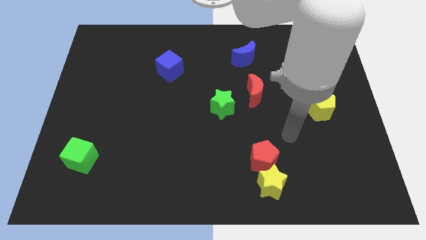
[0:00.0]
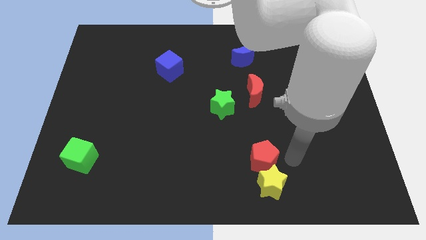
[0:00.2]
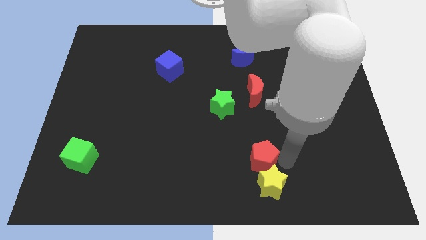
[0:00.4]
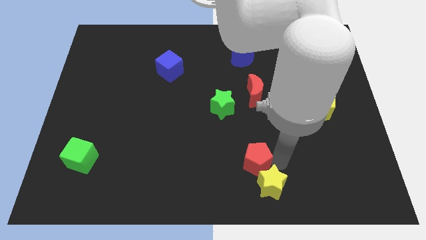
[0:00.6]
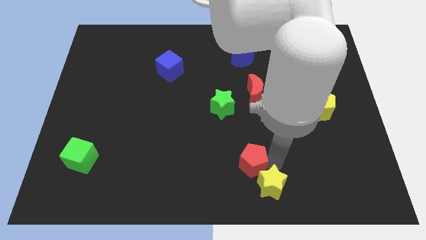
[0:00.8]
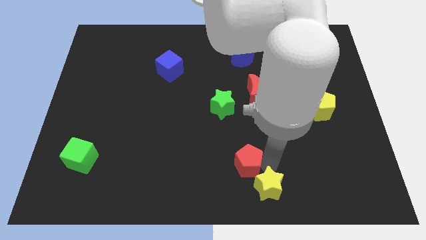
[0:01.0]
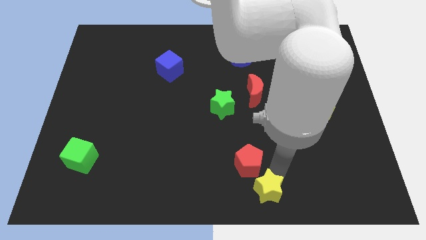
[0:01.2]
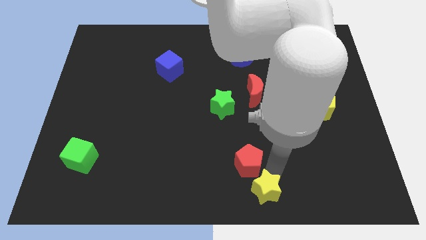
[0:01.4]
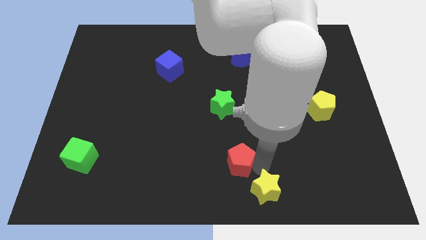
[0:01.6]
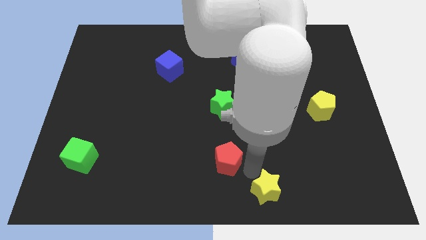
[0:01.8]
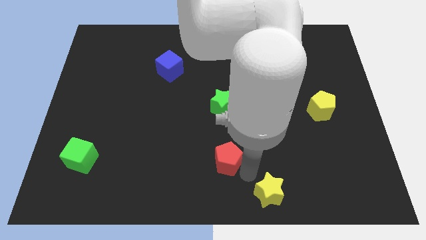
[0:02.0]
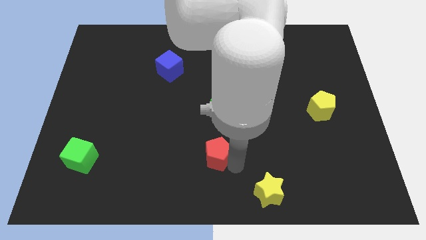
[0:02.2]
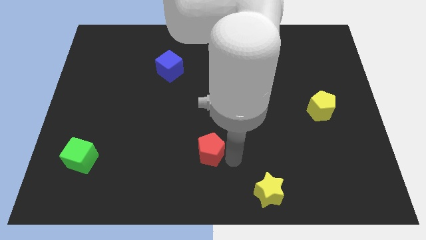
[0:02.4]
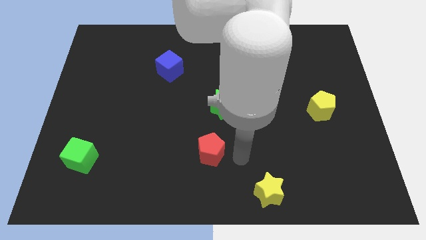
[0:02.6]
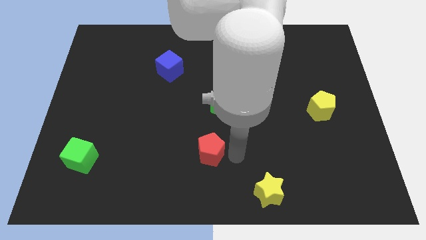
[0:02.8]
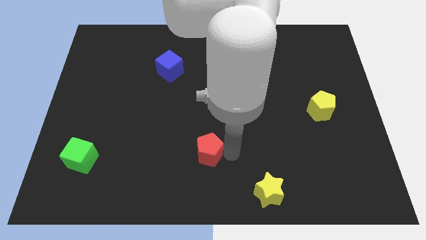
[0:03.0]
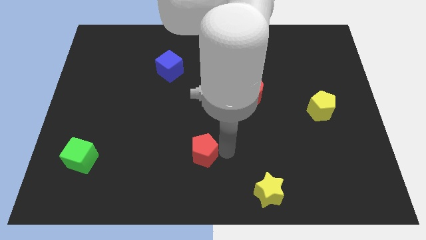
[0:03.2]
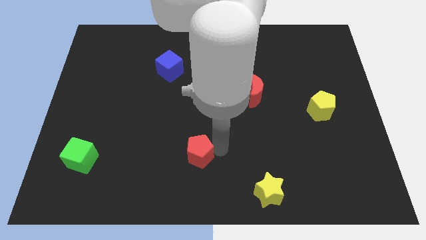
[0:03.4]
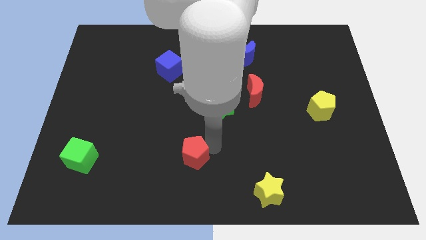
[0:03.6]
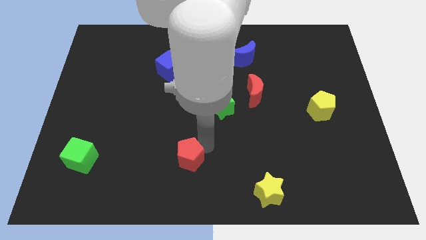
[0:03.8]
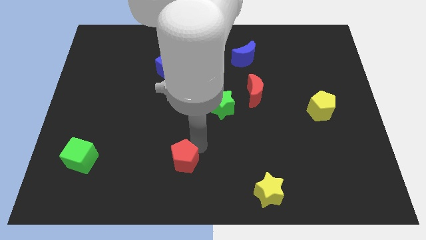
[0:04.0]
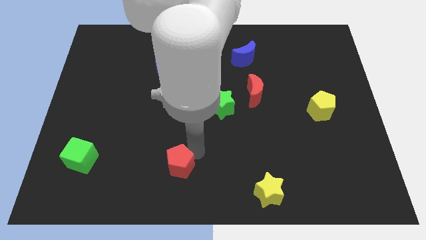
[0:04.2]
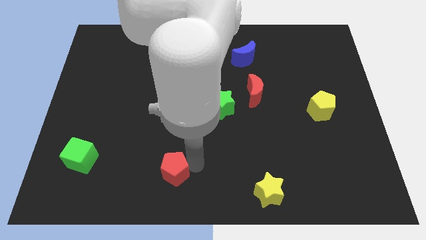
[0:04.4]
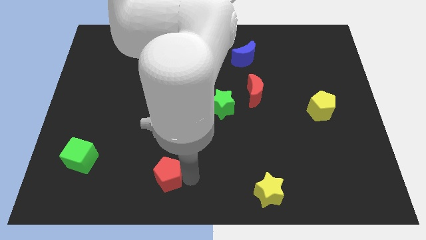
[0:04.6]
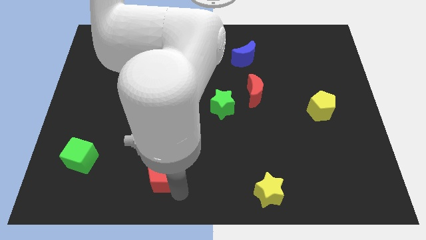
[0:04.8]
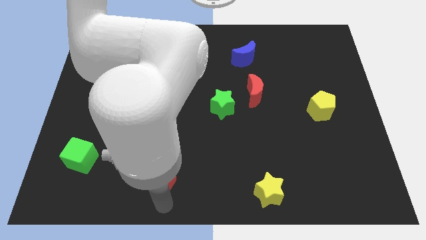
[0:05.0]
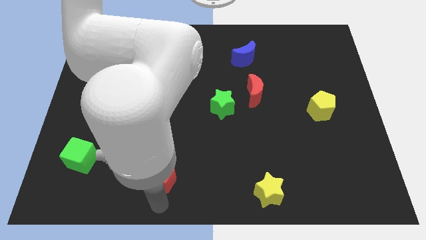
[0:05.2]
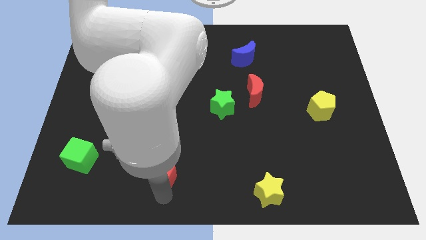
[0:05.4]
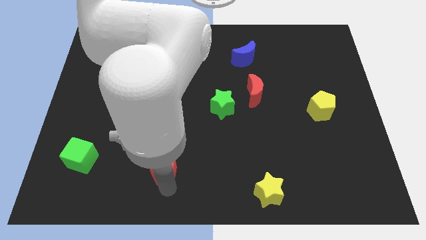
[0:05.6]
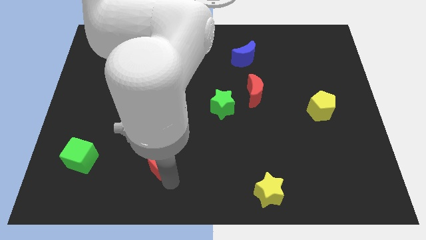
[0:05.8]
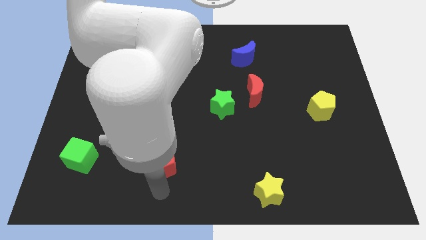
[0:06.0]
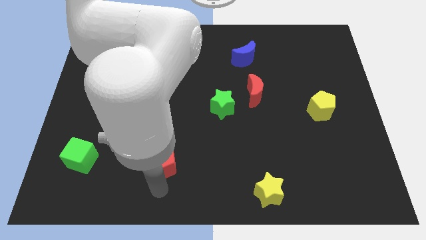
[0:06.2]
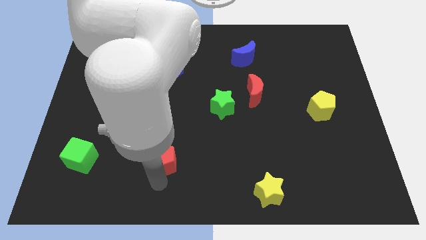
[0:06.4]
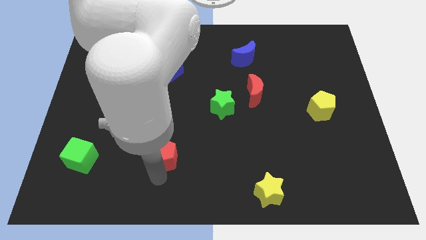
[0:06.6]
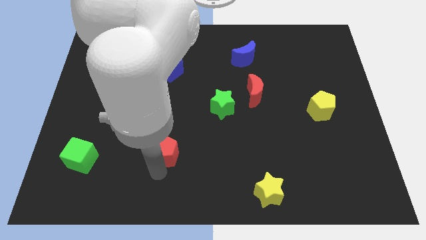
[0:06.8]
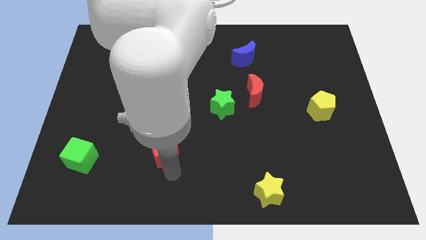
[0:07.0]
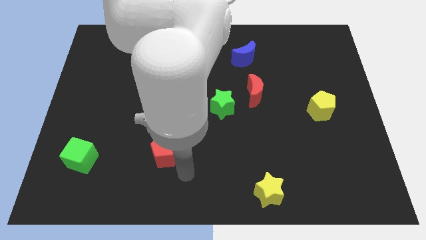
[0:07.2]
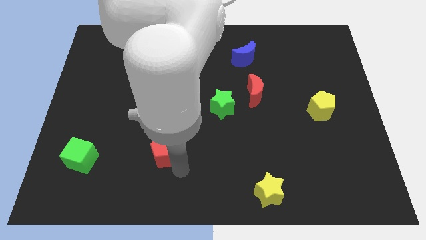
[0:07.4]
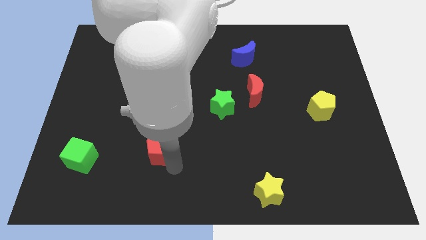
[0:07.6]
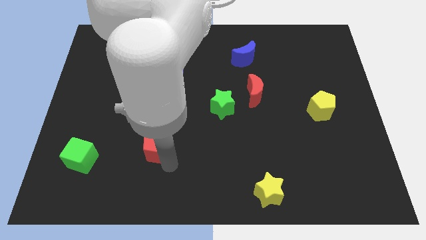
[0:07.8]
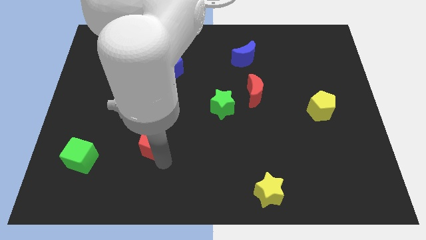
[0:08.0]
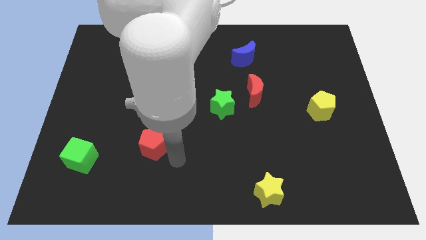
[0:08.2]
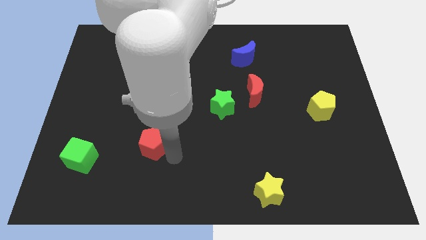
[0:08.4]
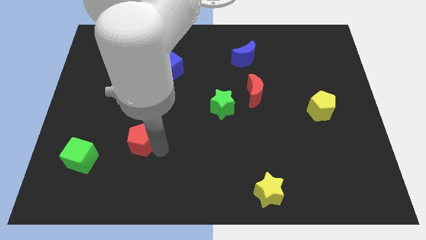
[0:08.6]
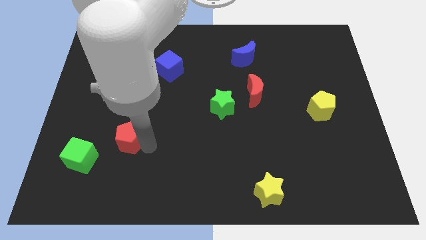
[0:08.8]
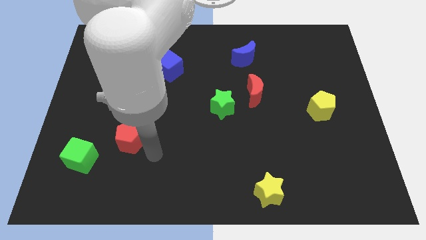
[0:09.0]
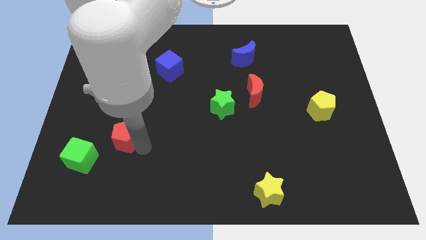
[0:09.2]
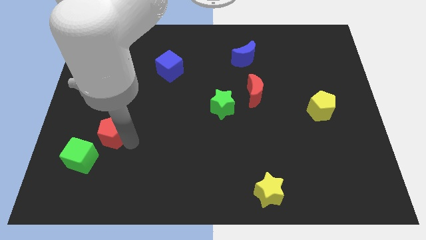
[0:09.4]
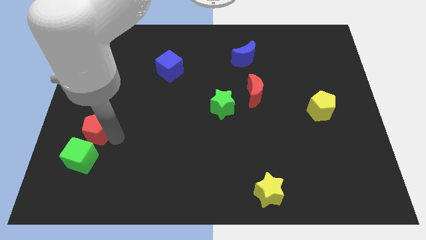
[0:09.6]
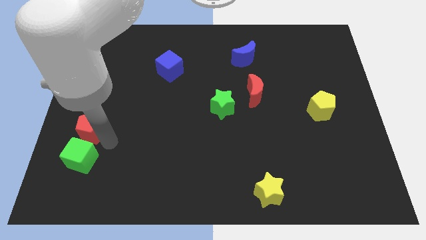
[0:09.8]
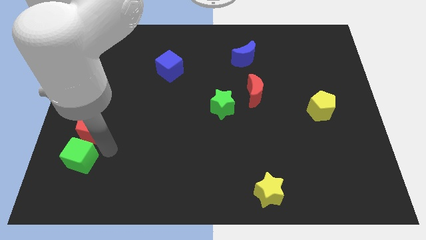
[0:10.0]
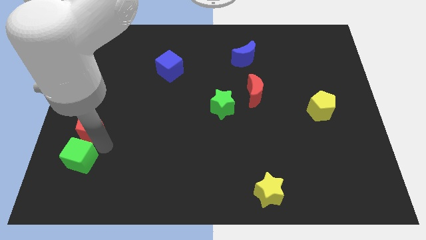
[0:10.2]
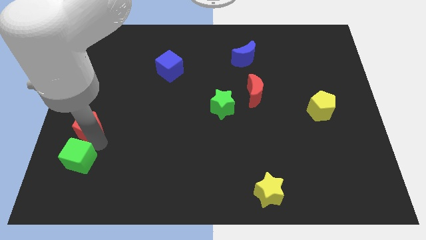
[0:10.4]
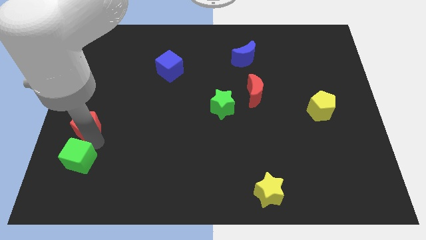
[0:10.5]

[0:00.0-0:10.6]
move the red pentagon to the center left

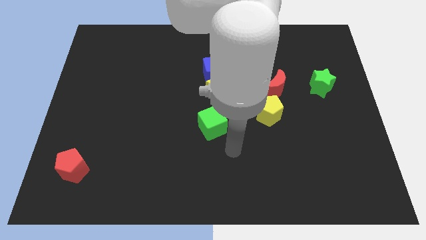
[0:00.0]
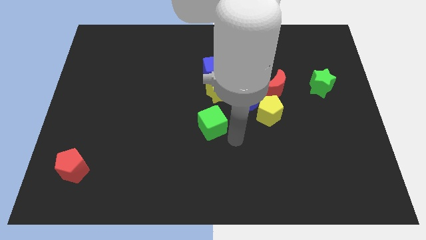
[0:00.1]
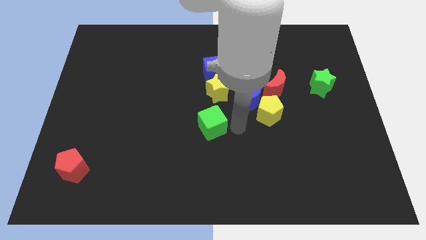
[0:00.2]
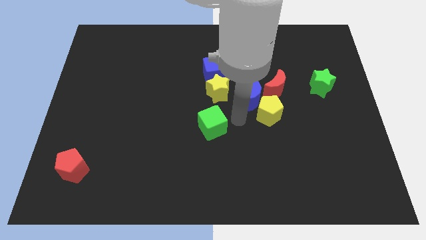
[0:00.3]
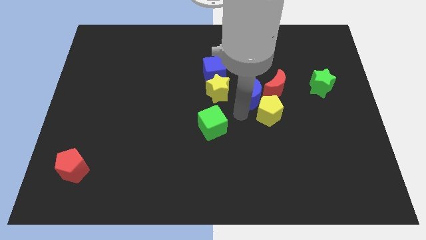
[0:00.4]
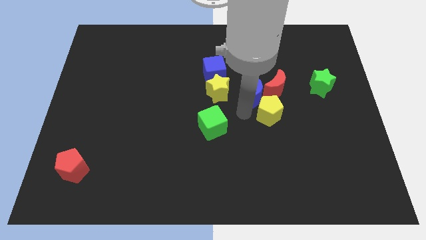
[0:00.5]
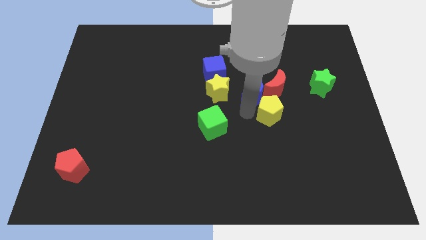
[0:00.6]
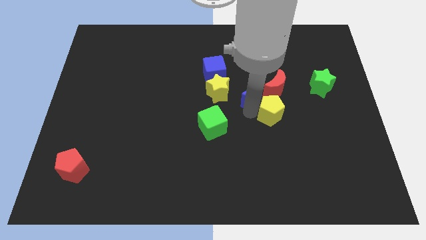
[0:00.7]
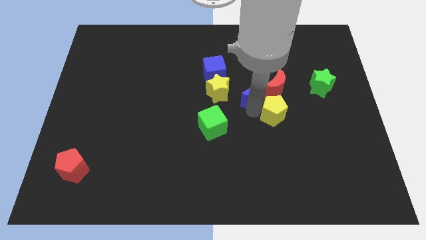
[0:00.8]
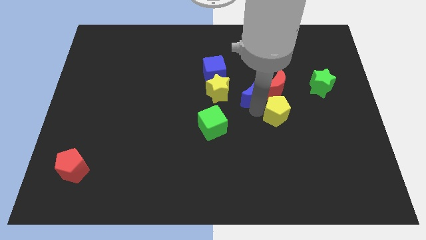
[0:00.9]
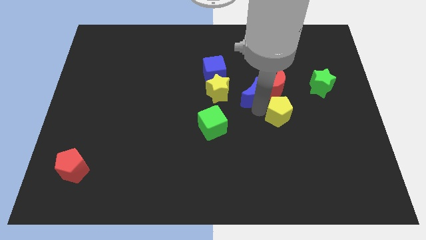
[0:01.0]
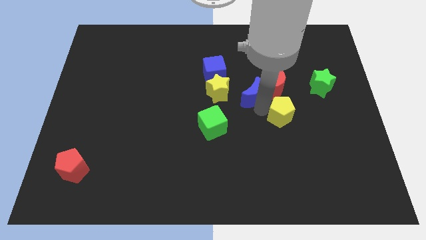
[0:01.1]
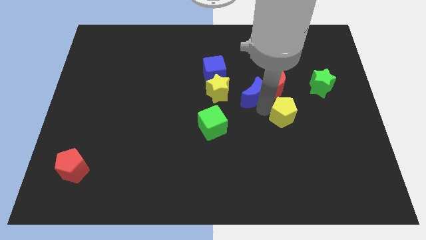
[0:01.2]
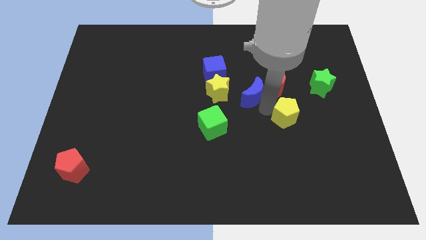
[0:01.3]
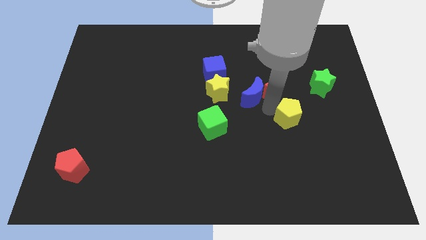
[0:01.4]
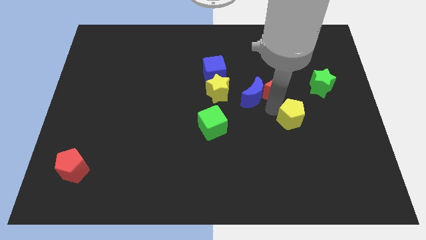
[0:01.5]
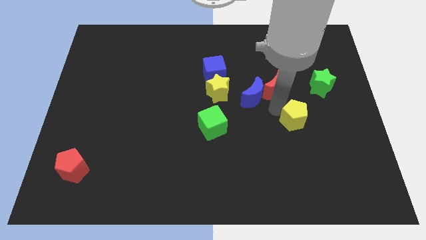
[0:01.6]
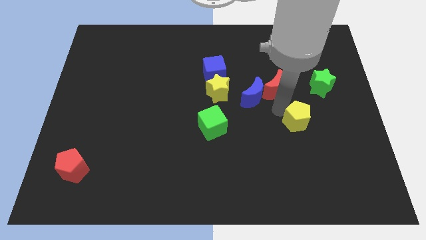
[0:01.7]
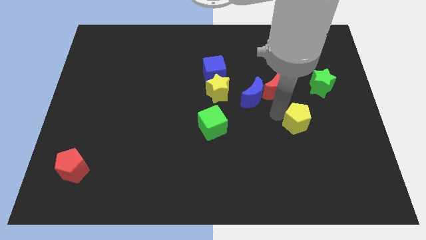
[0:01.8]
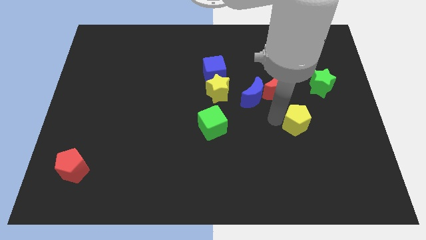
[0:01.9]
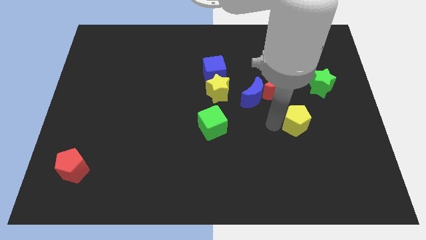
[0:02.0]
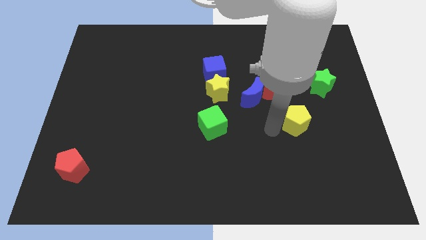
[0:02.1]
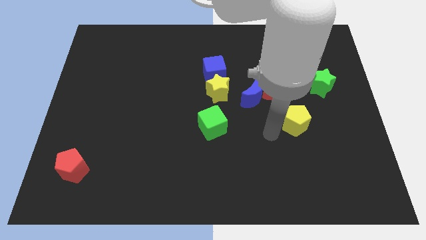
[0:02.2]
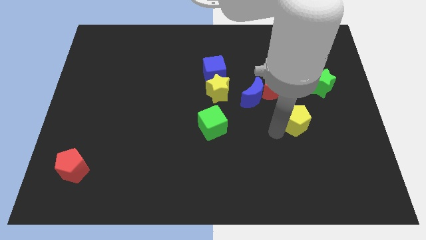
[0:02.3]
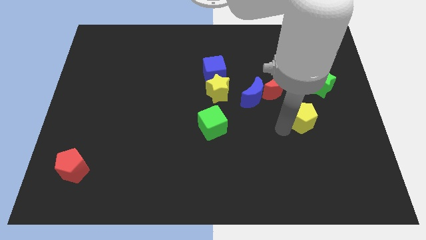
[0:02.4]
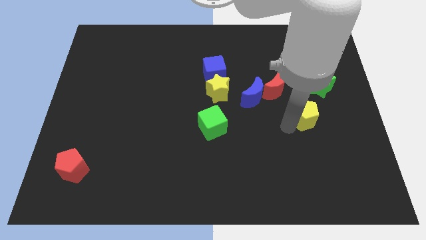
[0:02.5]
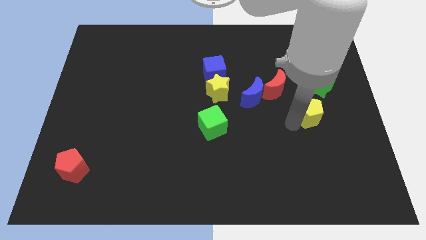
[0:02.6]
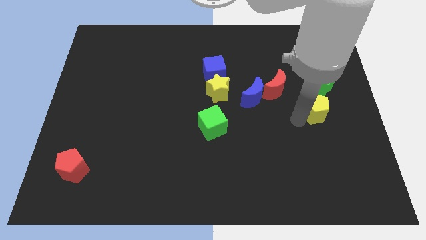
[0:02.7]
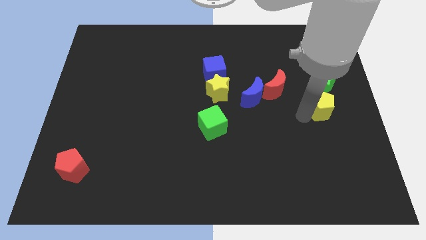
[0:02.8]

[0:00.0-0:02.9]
slide the yellow pentagon to the right side
